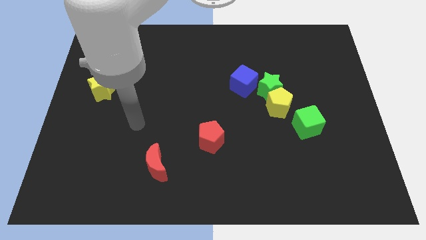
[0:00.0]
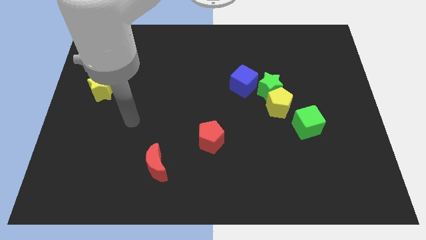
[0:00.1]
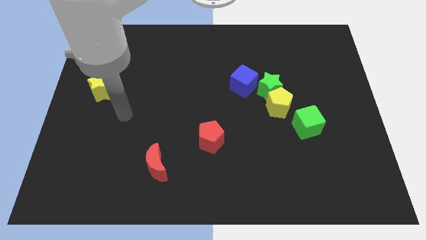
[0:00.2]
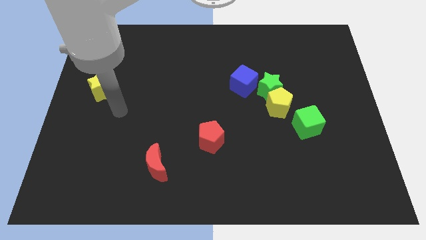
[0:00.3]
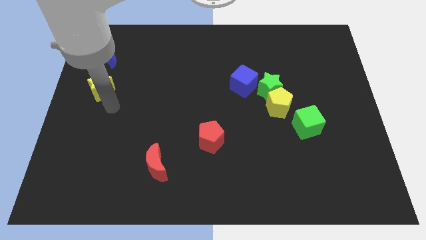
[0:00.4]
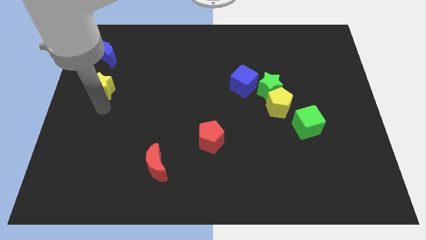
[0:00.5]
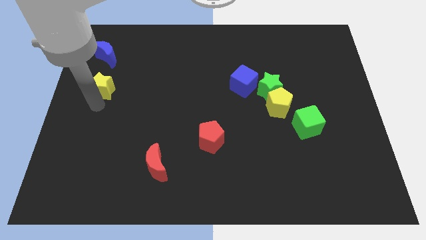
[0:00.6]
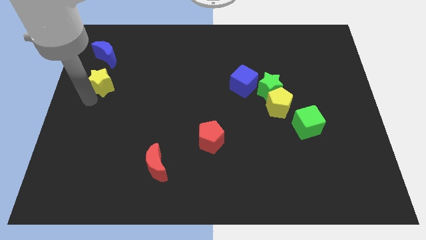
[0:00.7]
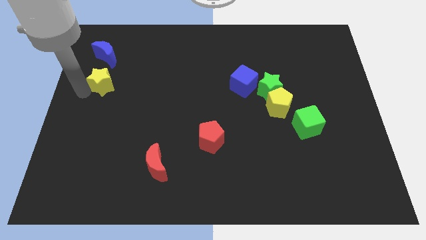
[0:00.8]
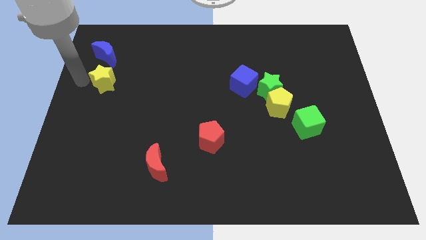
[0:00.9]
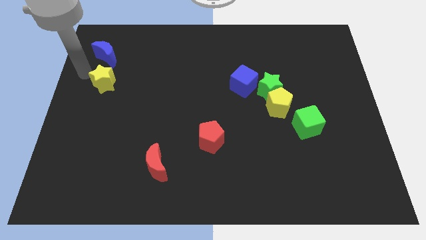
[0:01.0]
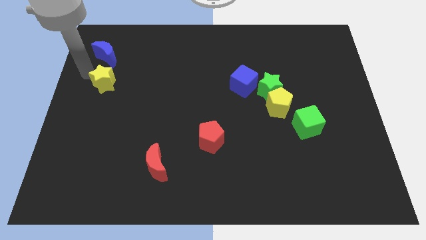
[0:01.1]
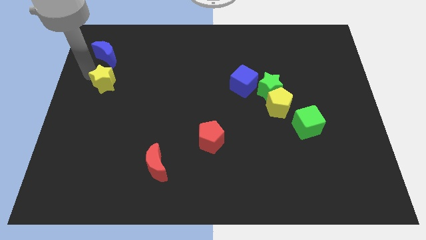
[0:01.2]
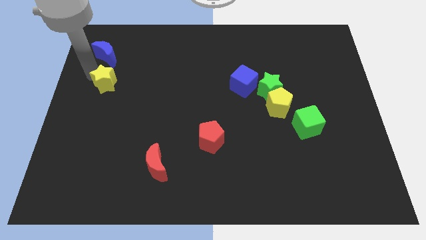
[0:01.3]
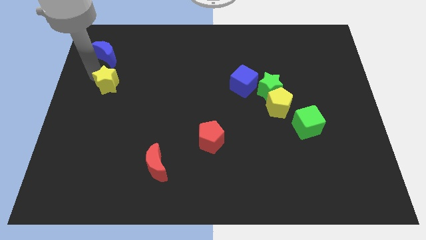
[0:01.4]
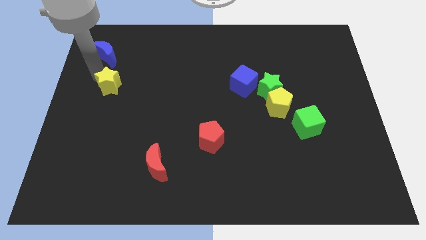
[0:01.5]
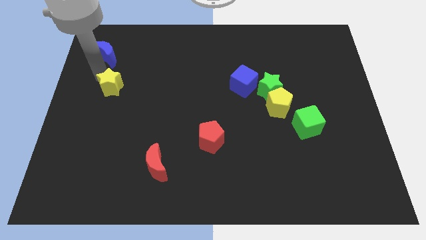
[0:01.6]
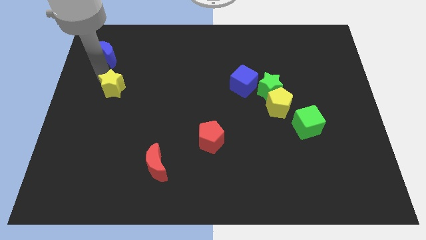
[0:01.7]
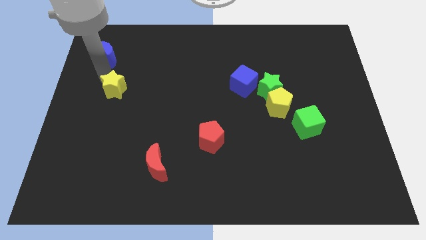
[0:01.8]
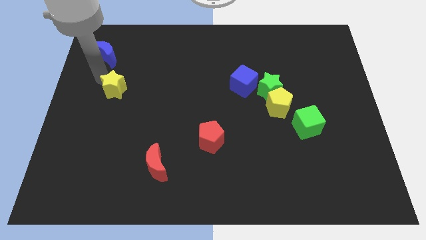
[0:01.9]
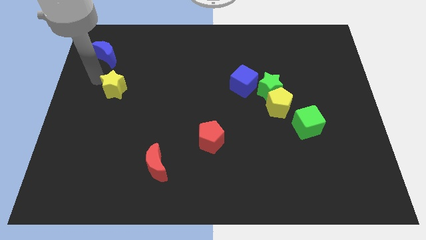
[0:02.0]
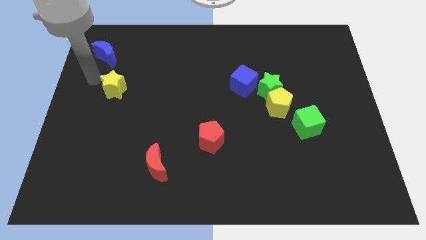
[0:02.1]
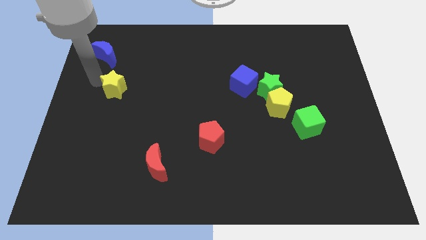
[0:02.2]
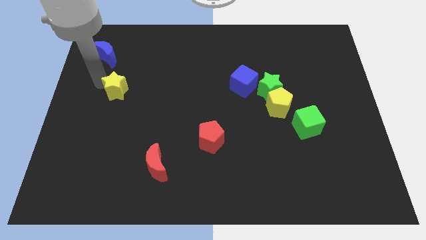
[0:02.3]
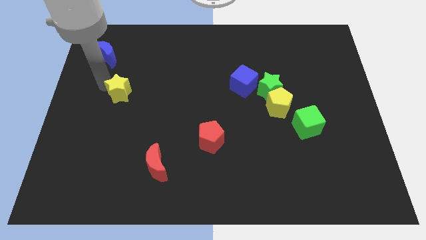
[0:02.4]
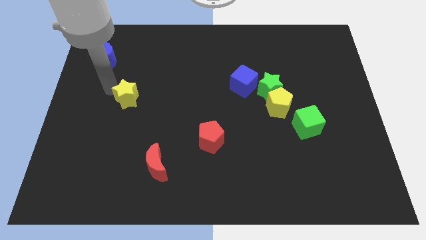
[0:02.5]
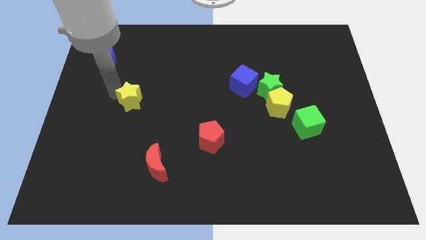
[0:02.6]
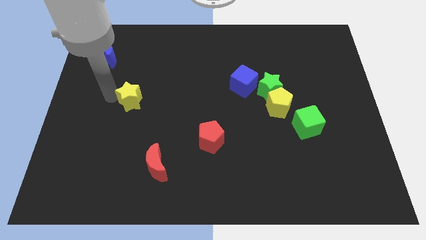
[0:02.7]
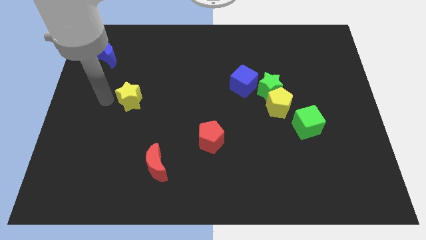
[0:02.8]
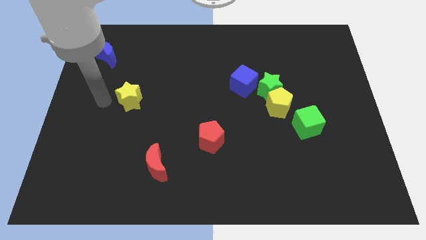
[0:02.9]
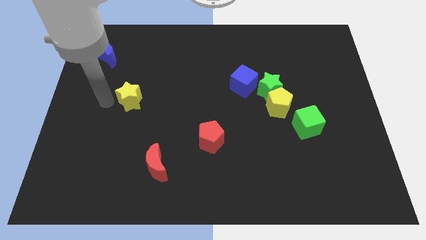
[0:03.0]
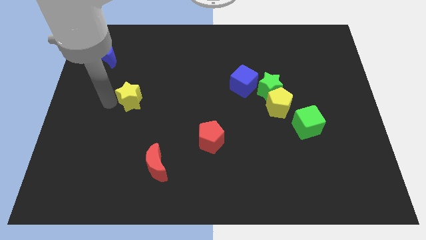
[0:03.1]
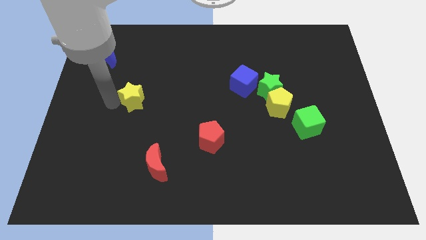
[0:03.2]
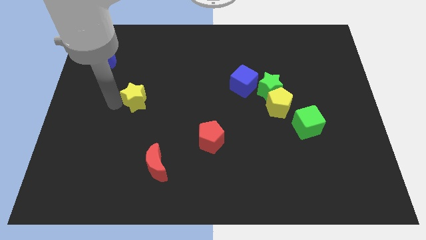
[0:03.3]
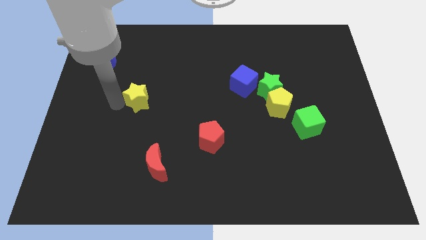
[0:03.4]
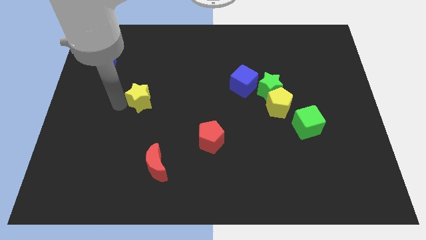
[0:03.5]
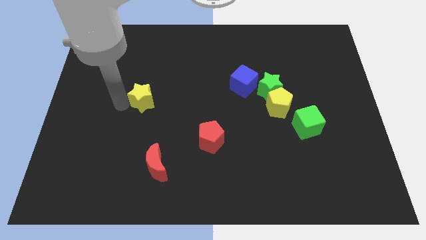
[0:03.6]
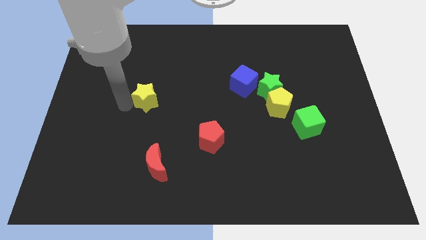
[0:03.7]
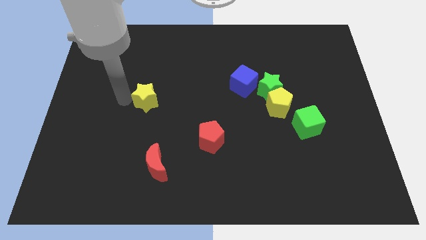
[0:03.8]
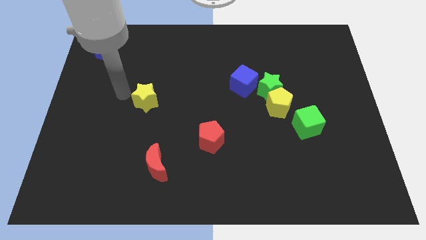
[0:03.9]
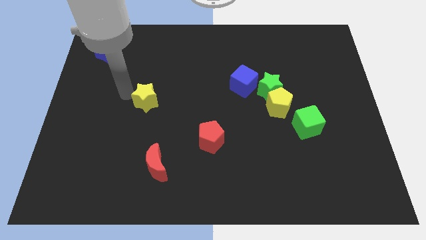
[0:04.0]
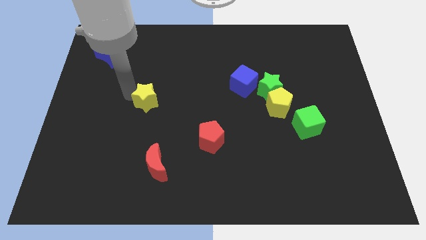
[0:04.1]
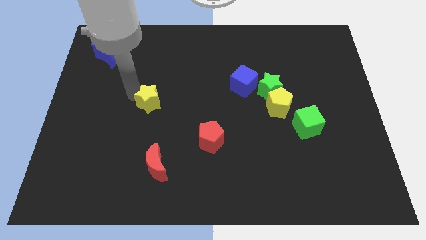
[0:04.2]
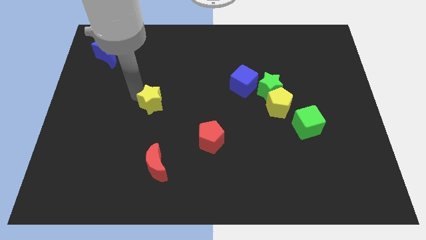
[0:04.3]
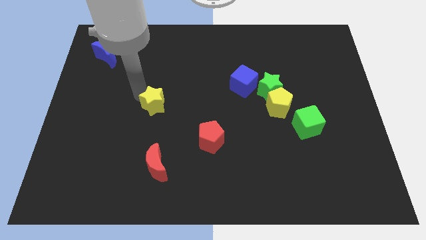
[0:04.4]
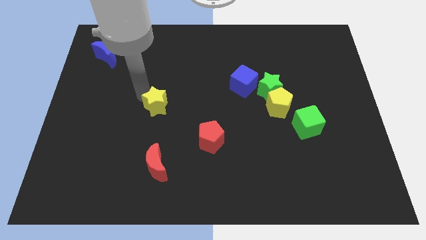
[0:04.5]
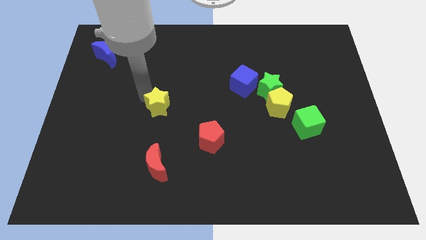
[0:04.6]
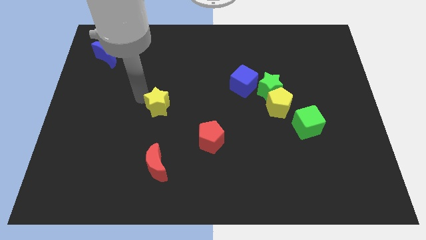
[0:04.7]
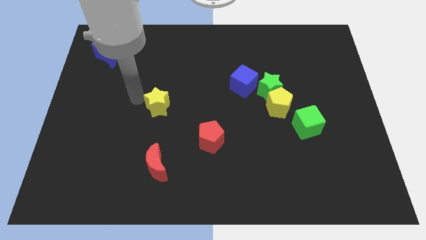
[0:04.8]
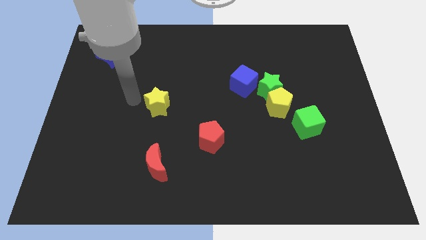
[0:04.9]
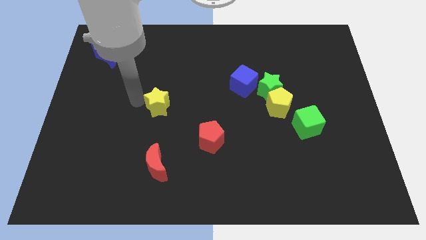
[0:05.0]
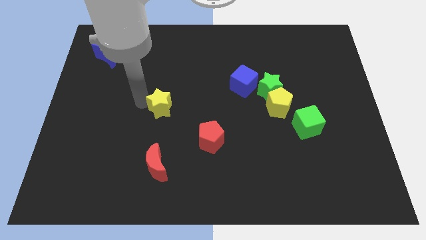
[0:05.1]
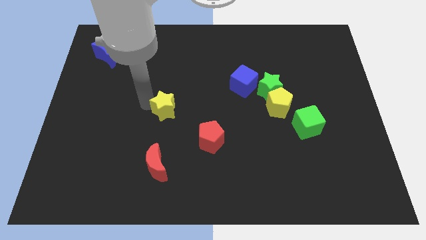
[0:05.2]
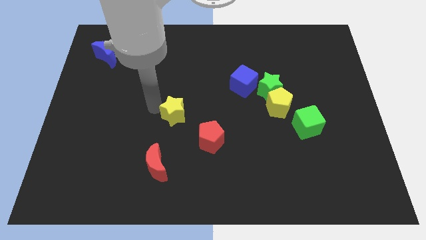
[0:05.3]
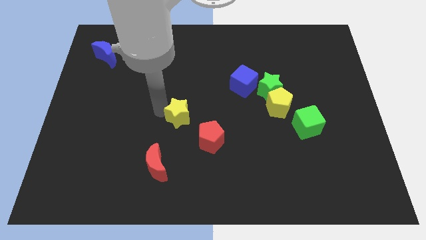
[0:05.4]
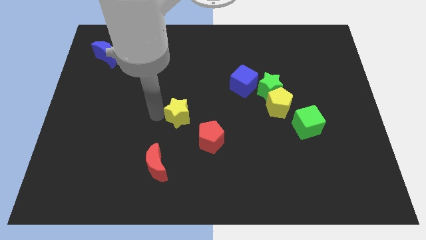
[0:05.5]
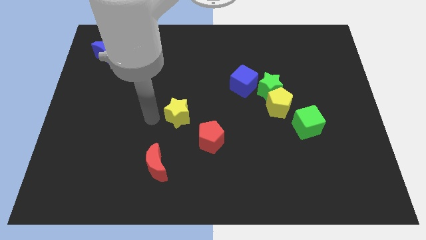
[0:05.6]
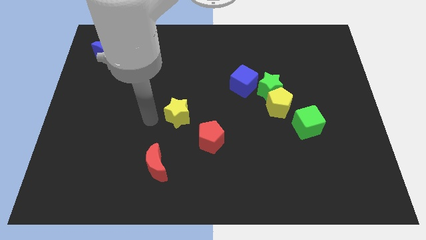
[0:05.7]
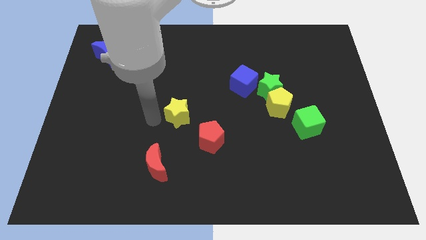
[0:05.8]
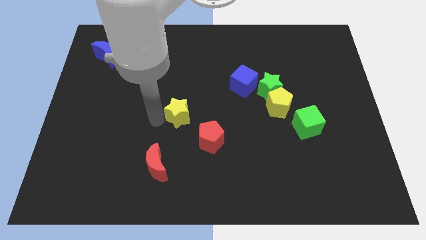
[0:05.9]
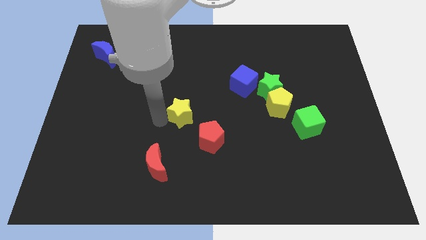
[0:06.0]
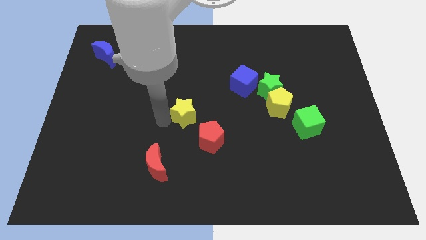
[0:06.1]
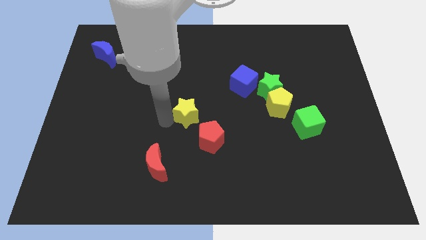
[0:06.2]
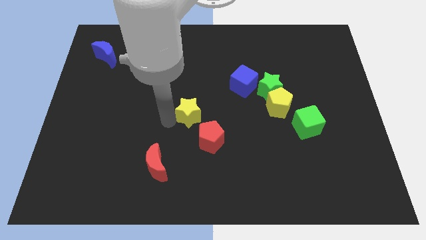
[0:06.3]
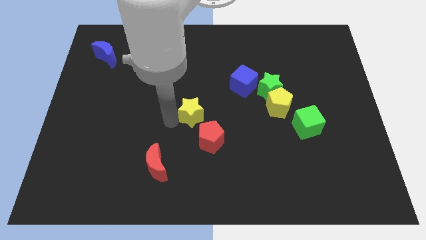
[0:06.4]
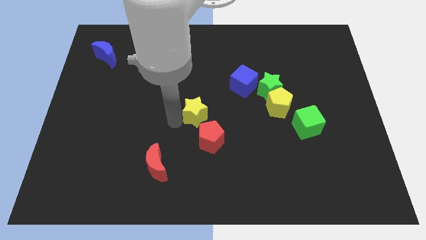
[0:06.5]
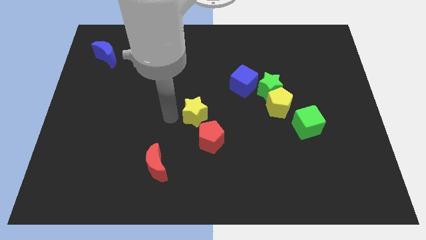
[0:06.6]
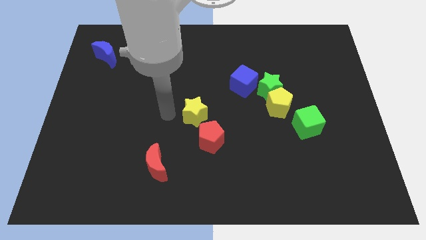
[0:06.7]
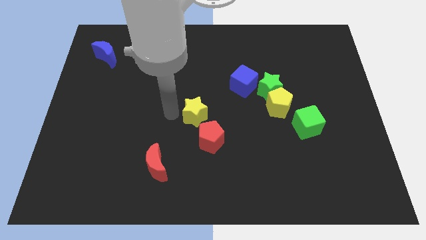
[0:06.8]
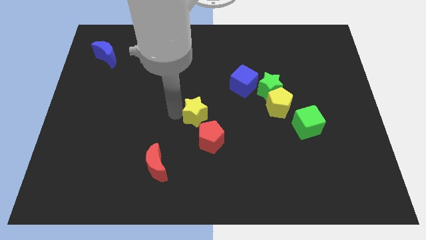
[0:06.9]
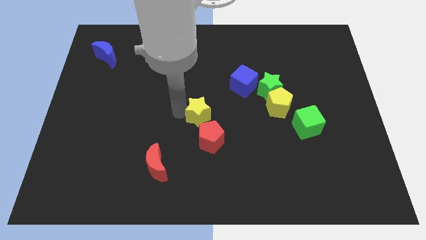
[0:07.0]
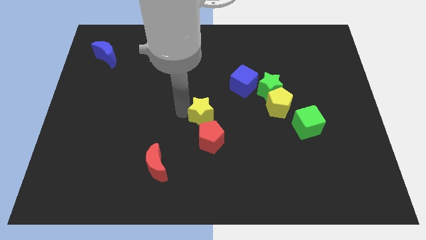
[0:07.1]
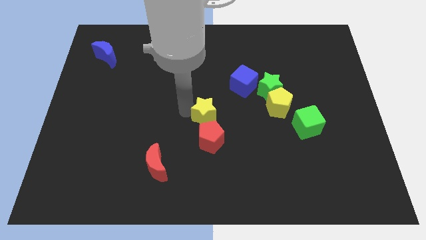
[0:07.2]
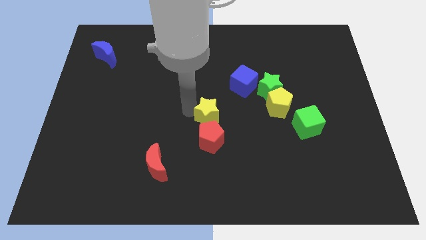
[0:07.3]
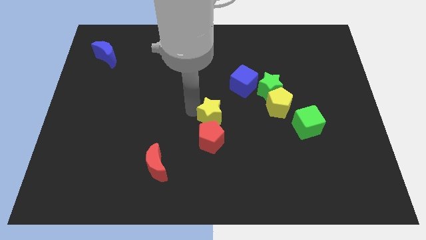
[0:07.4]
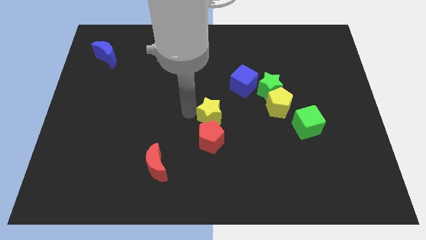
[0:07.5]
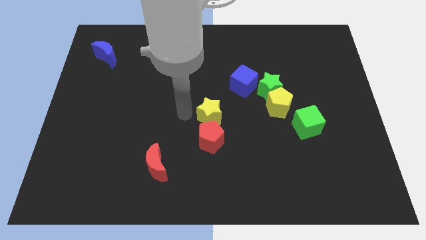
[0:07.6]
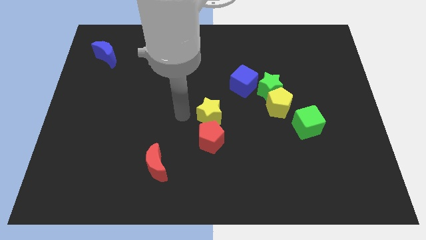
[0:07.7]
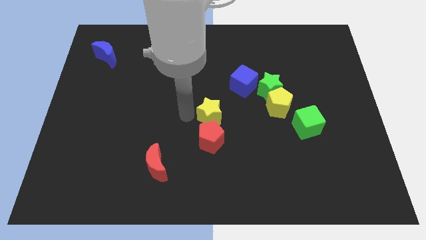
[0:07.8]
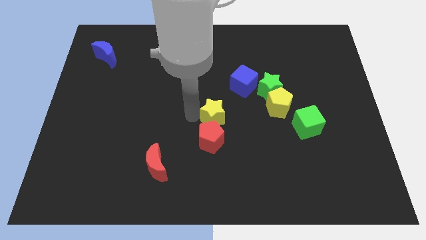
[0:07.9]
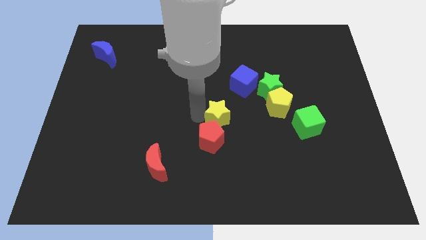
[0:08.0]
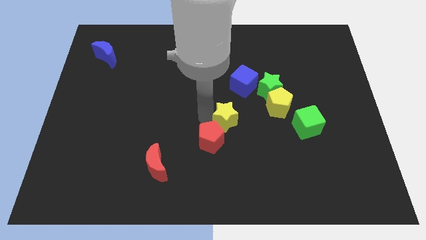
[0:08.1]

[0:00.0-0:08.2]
move the yellow star below the blue cube
